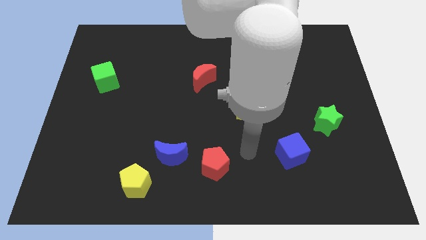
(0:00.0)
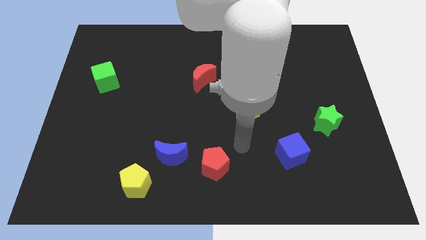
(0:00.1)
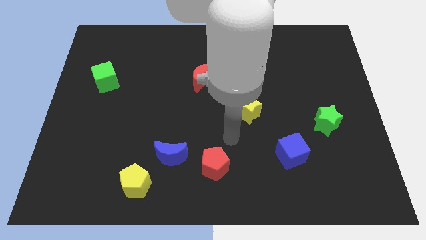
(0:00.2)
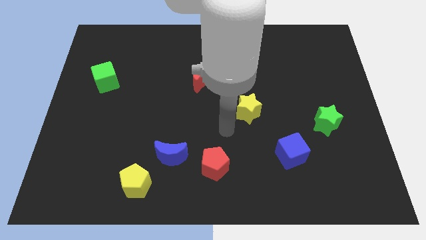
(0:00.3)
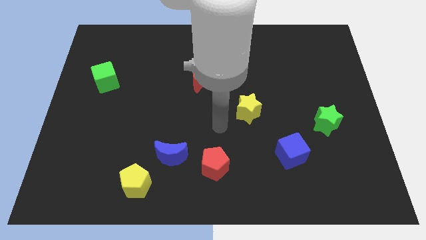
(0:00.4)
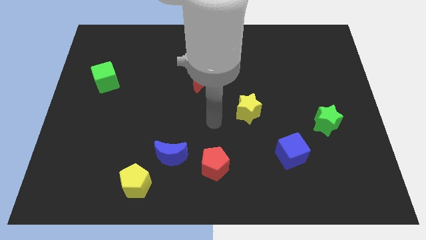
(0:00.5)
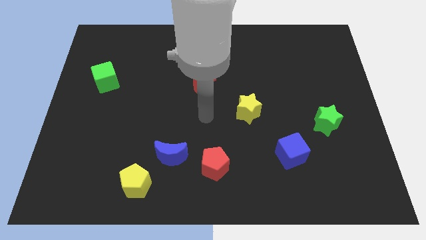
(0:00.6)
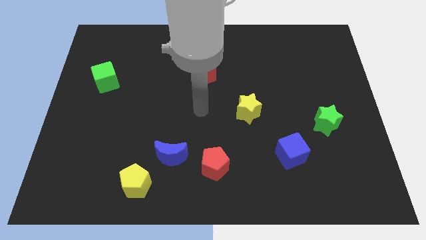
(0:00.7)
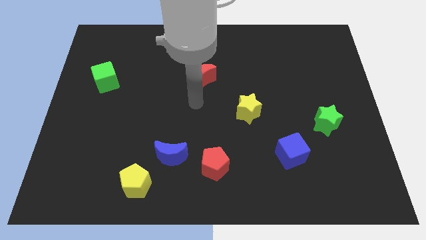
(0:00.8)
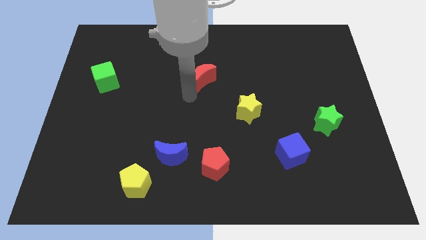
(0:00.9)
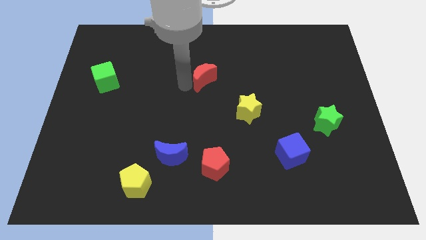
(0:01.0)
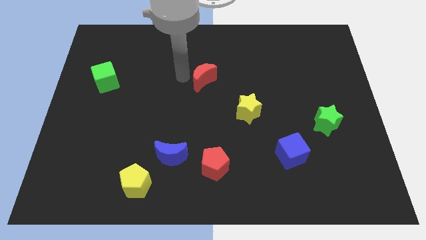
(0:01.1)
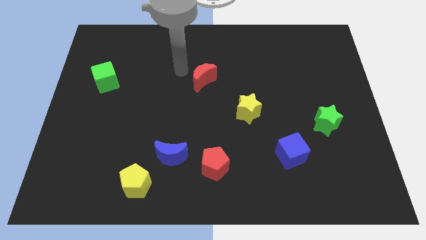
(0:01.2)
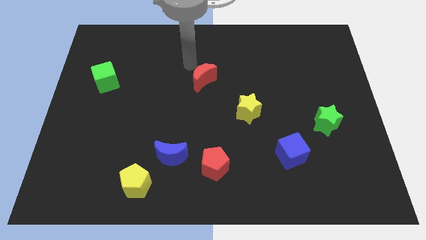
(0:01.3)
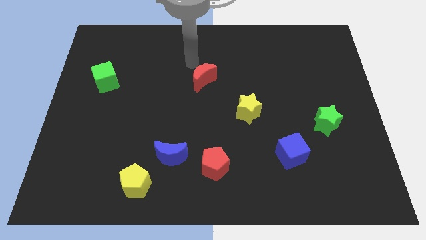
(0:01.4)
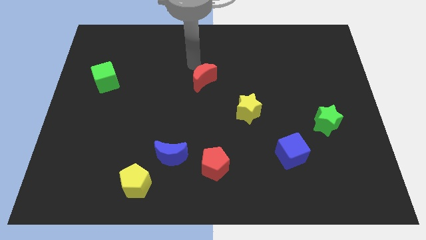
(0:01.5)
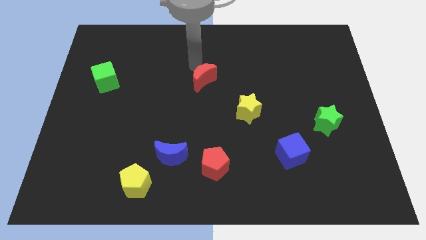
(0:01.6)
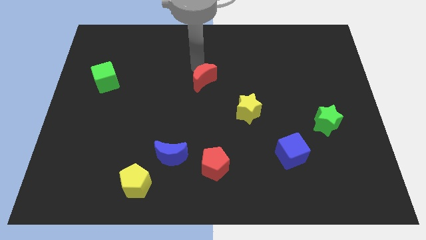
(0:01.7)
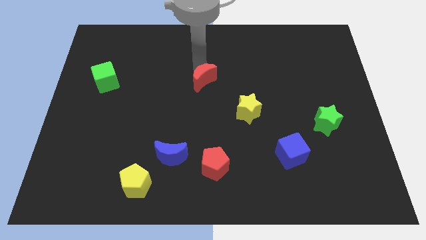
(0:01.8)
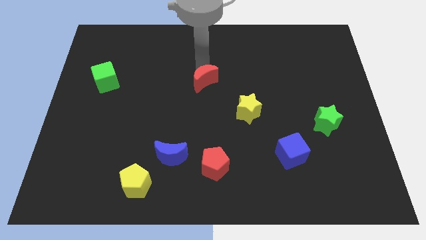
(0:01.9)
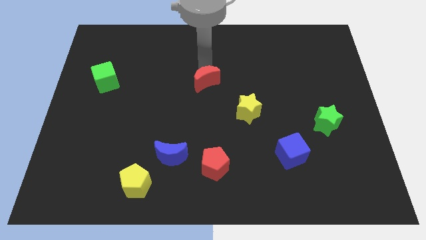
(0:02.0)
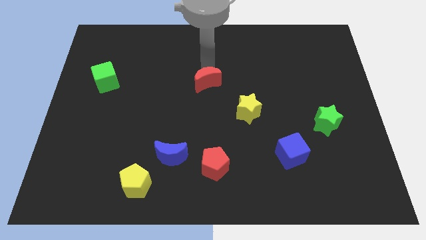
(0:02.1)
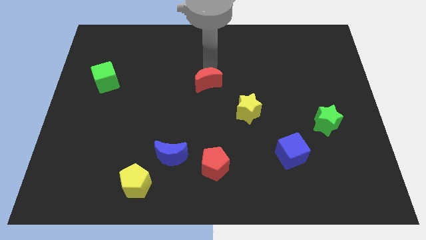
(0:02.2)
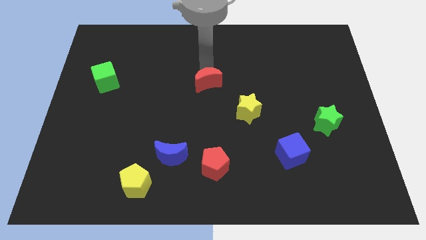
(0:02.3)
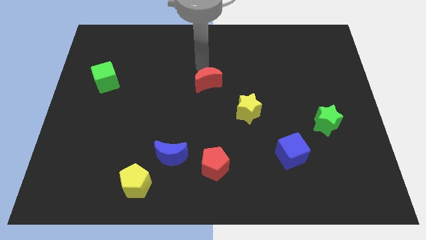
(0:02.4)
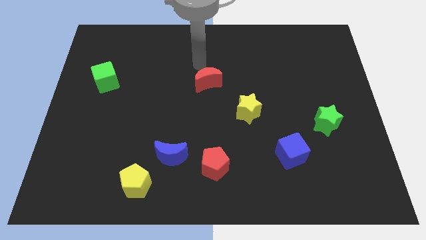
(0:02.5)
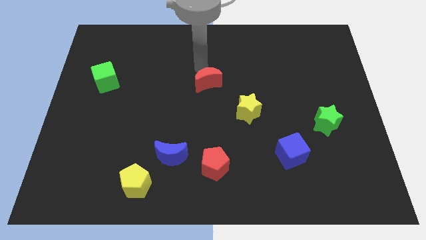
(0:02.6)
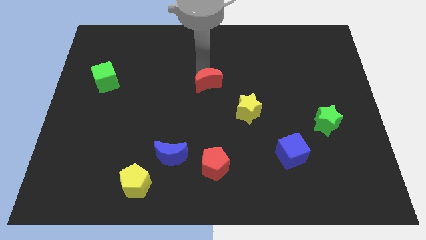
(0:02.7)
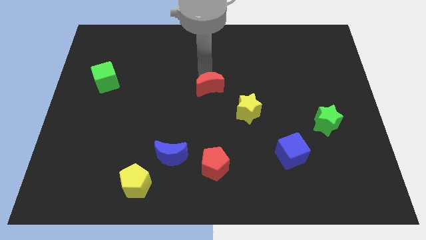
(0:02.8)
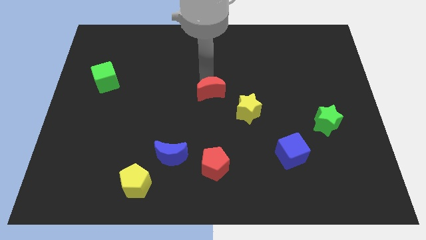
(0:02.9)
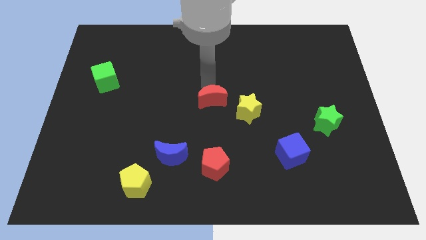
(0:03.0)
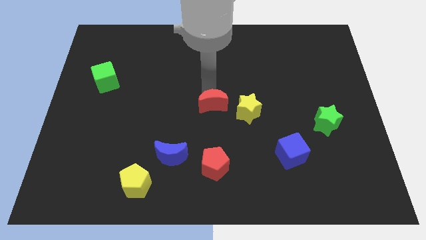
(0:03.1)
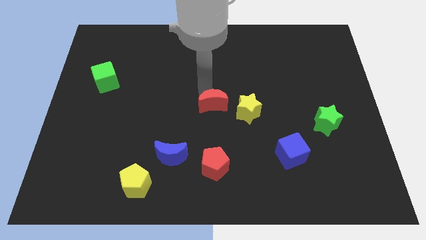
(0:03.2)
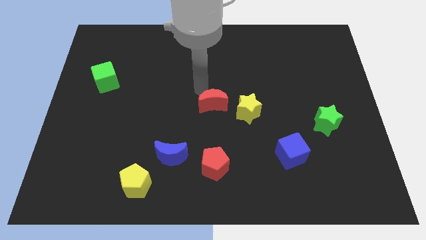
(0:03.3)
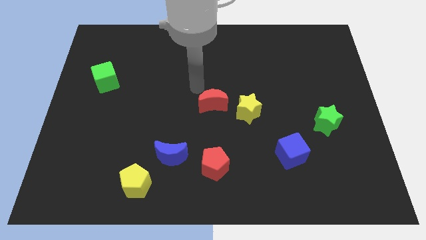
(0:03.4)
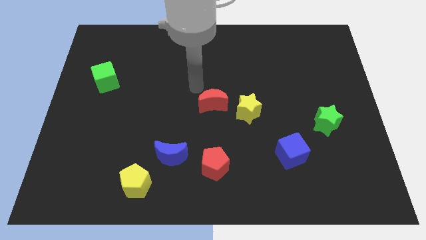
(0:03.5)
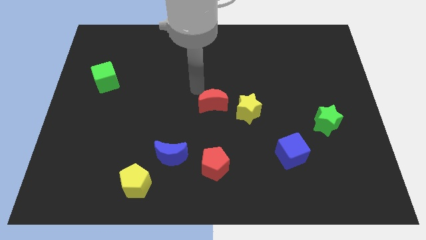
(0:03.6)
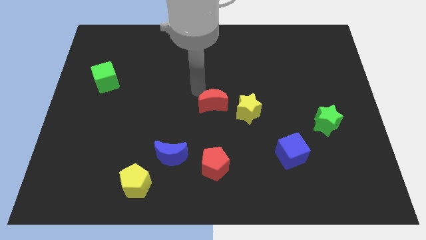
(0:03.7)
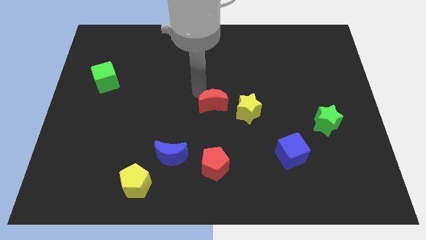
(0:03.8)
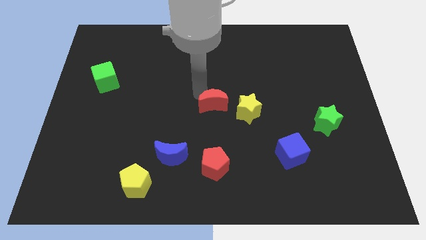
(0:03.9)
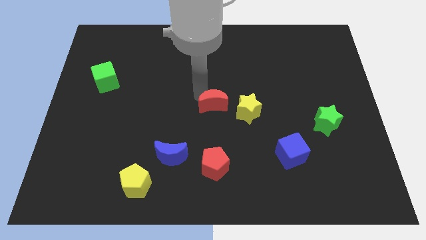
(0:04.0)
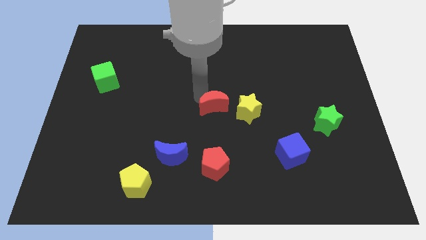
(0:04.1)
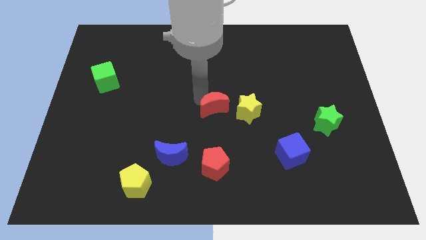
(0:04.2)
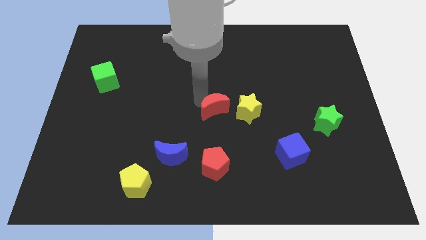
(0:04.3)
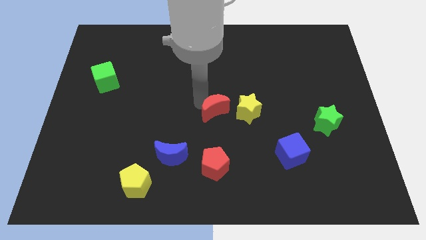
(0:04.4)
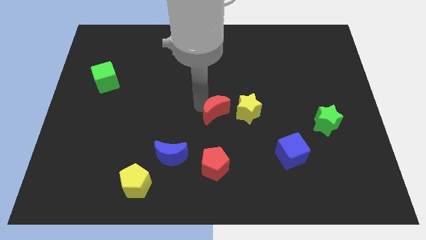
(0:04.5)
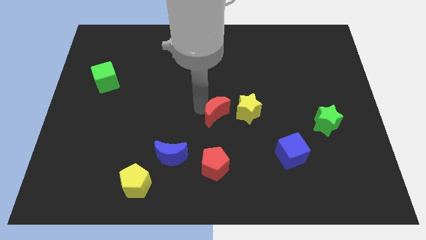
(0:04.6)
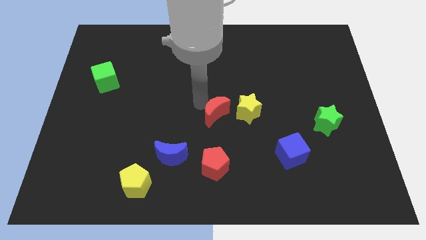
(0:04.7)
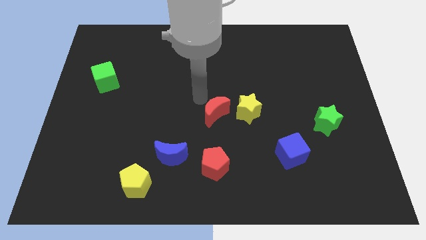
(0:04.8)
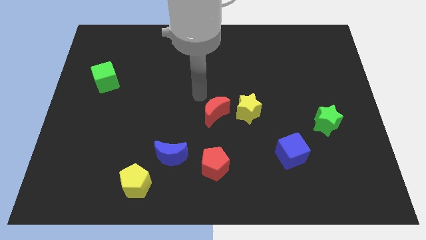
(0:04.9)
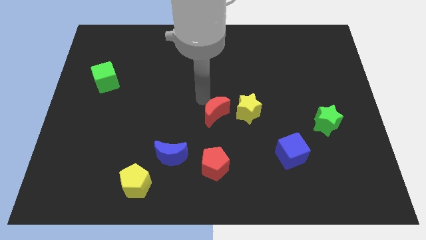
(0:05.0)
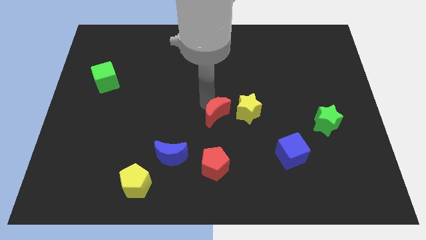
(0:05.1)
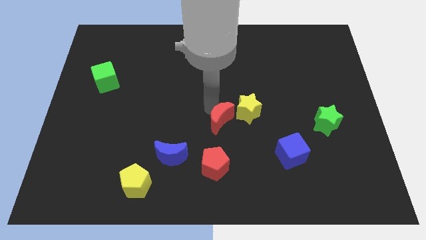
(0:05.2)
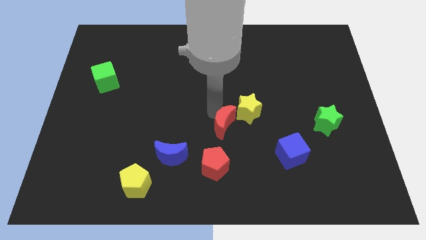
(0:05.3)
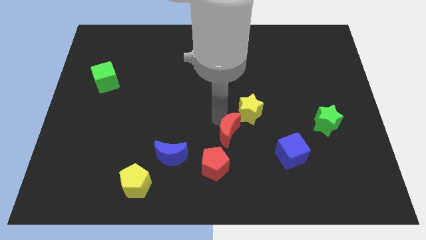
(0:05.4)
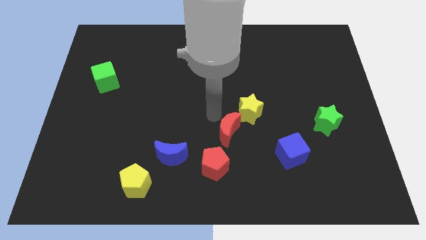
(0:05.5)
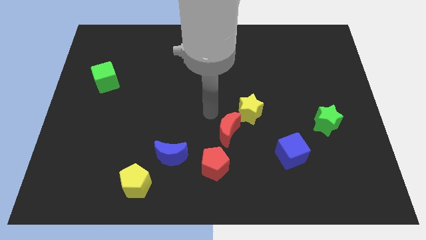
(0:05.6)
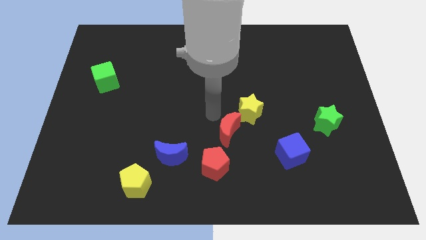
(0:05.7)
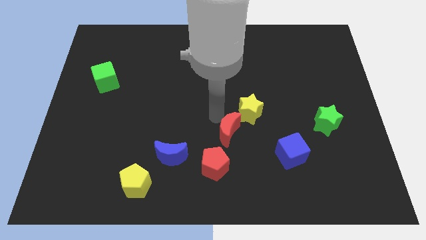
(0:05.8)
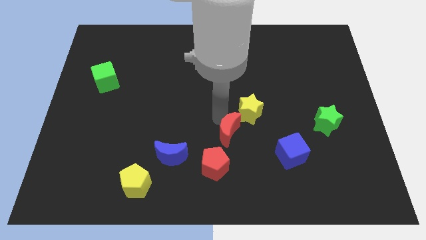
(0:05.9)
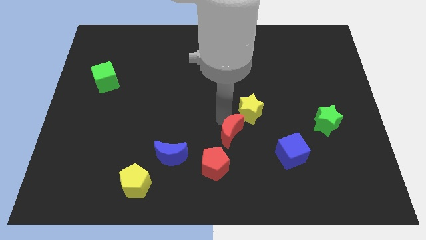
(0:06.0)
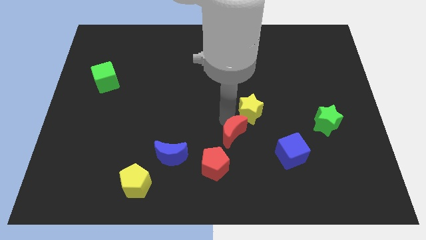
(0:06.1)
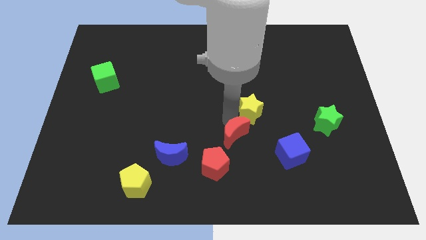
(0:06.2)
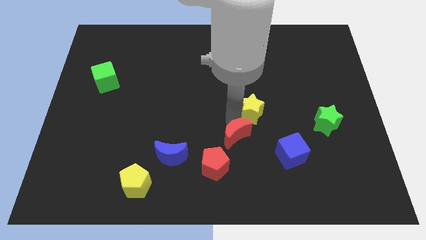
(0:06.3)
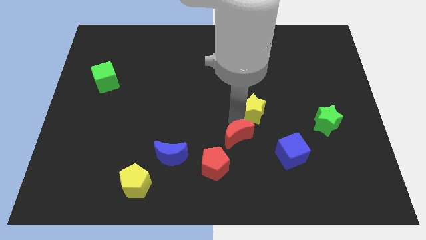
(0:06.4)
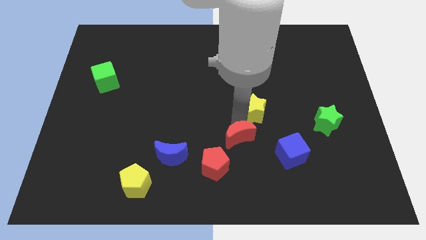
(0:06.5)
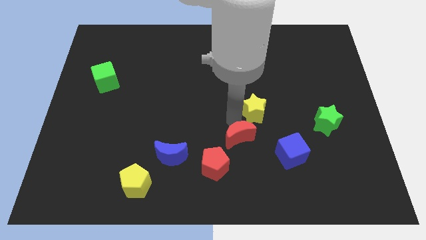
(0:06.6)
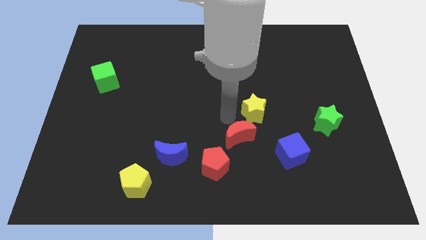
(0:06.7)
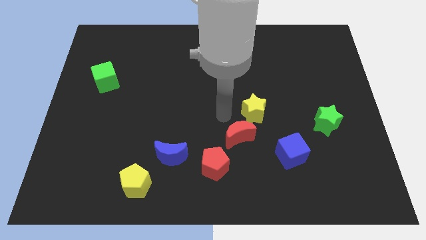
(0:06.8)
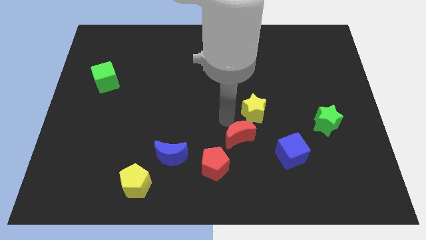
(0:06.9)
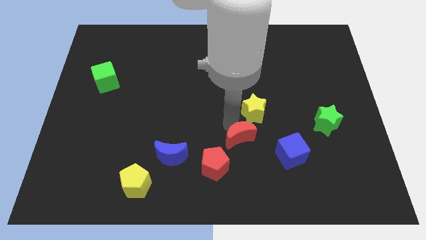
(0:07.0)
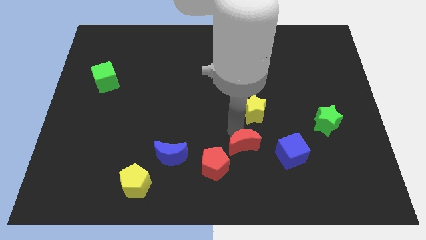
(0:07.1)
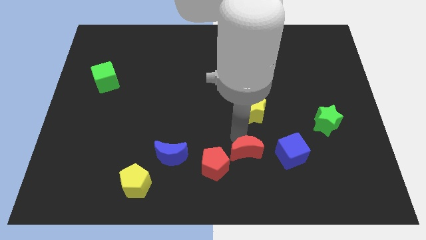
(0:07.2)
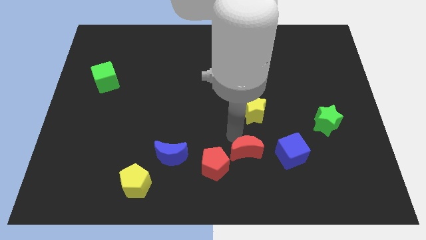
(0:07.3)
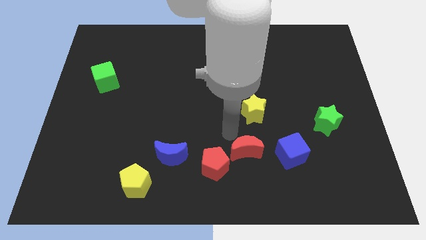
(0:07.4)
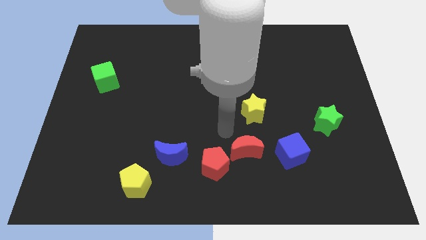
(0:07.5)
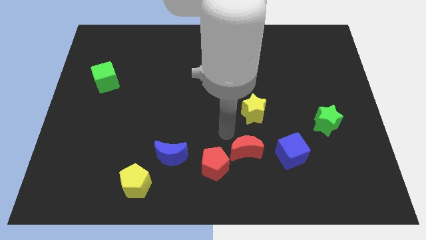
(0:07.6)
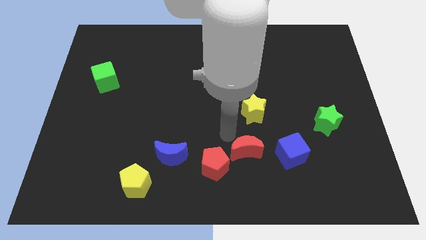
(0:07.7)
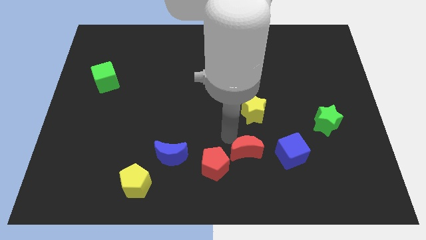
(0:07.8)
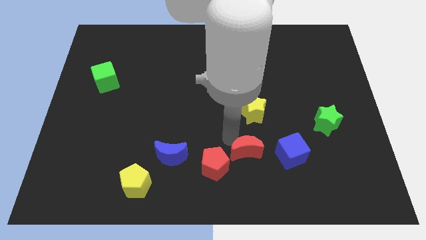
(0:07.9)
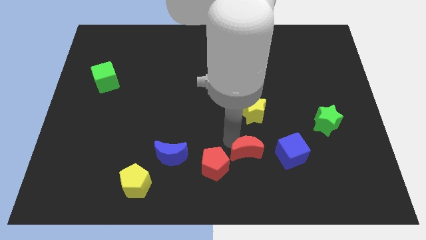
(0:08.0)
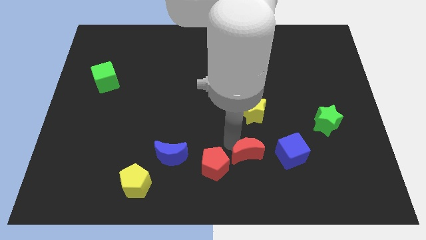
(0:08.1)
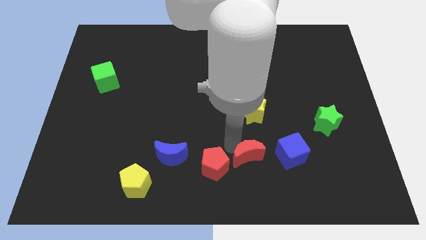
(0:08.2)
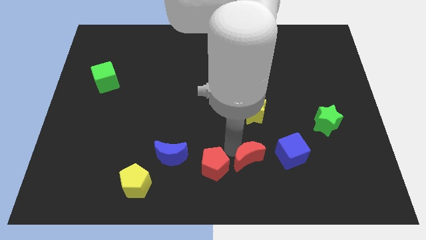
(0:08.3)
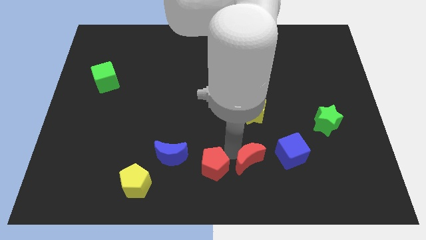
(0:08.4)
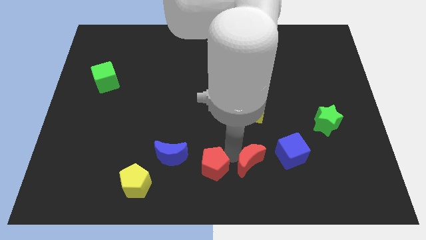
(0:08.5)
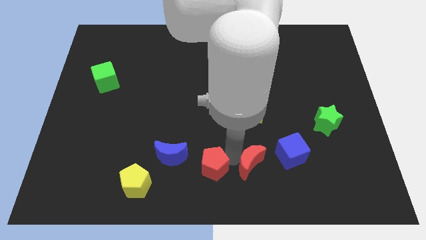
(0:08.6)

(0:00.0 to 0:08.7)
move the red moon to the bottom left of the blue cube
